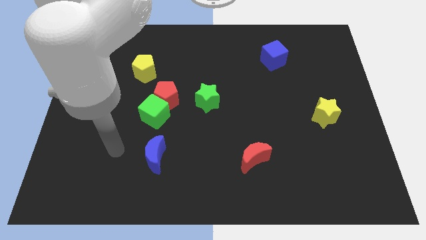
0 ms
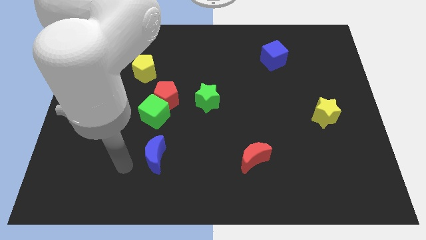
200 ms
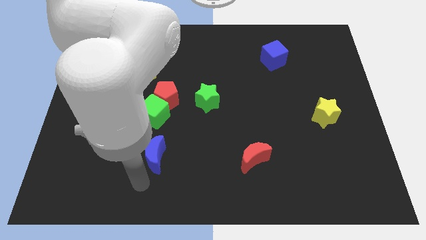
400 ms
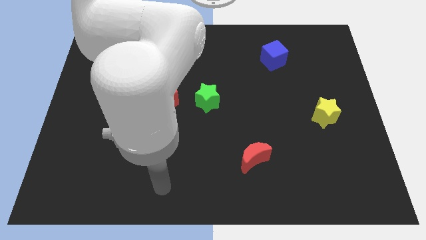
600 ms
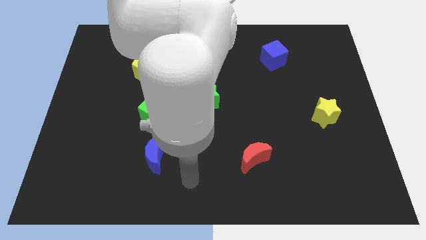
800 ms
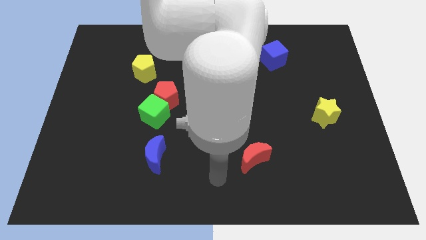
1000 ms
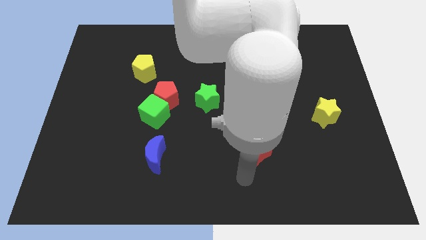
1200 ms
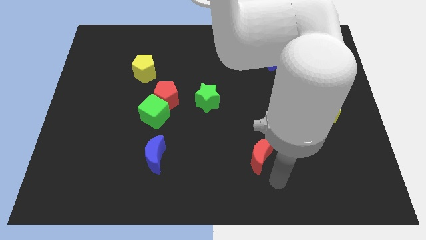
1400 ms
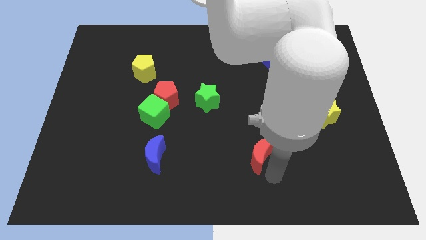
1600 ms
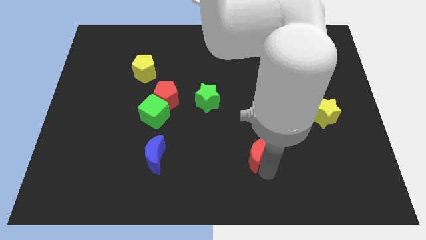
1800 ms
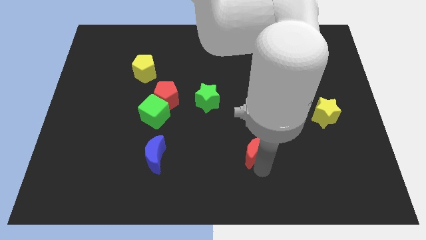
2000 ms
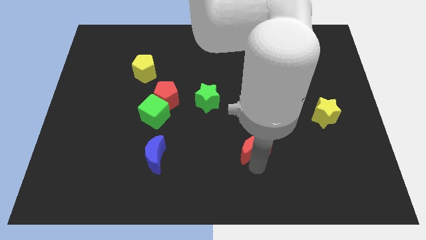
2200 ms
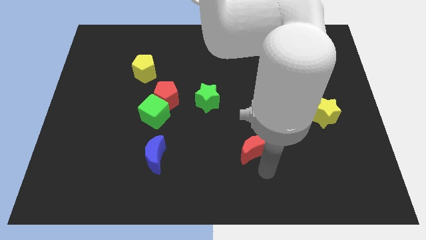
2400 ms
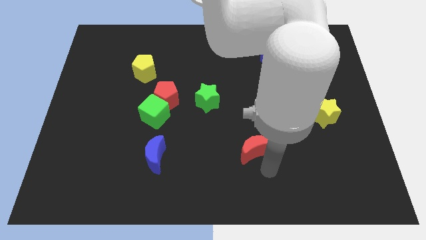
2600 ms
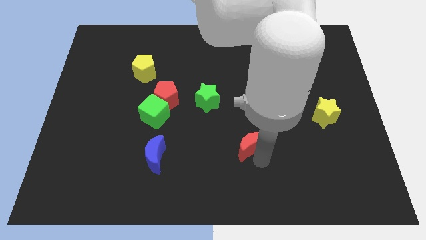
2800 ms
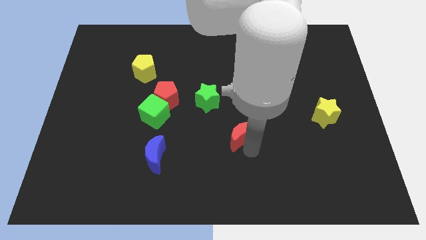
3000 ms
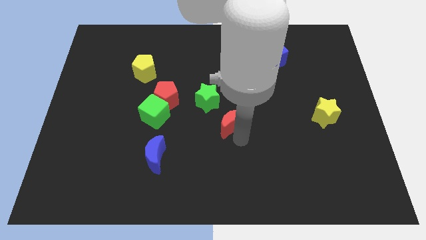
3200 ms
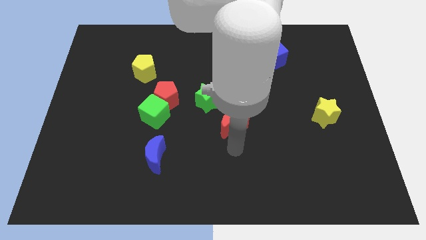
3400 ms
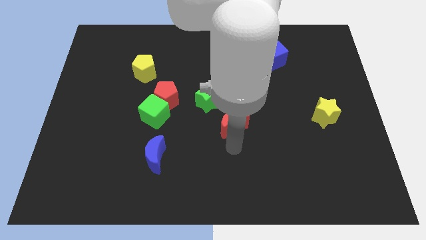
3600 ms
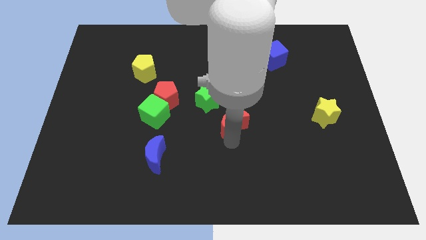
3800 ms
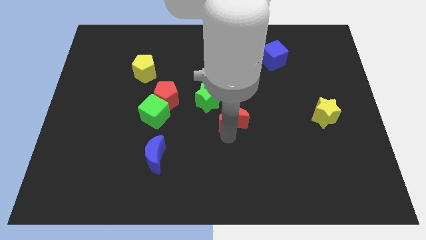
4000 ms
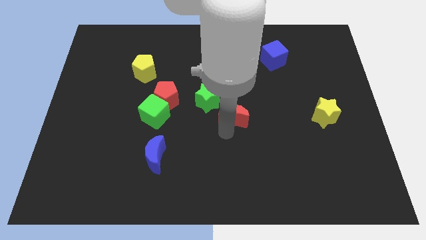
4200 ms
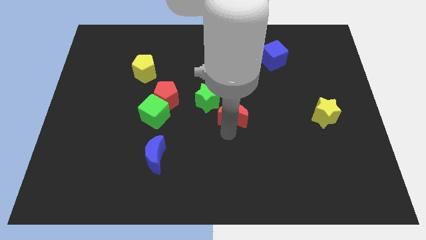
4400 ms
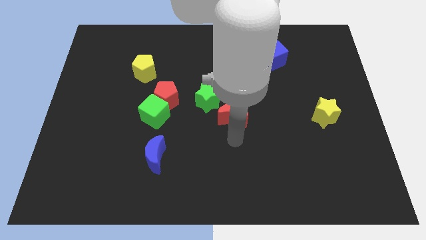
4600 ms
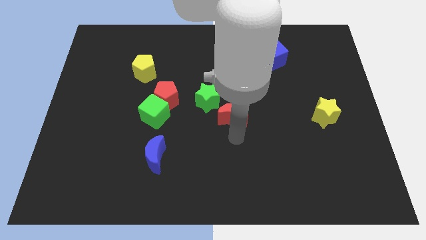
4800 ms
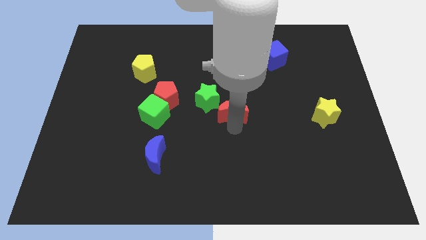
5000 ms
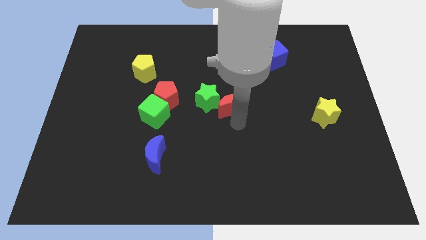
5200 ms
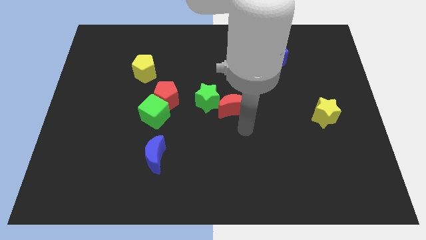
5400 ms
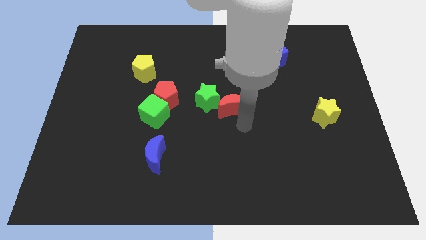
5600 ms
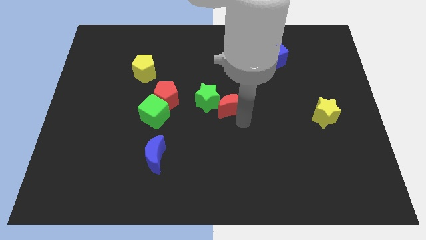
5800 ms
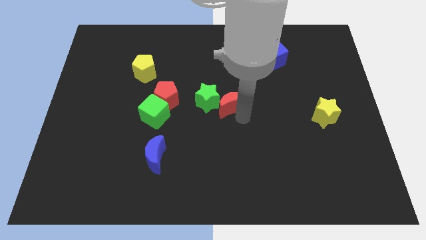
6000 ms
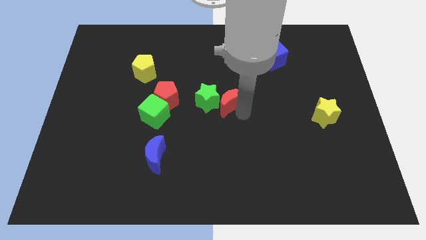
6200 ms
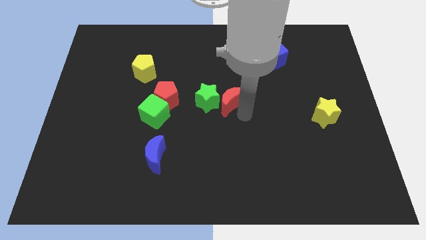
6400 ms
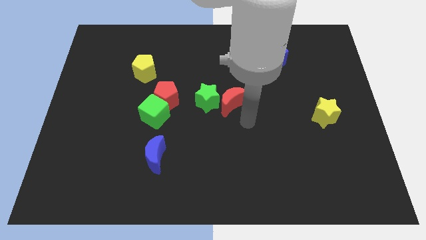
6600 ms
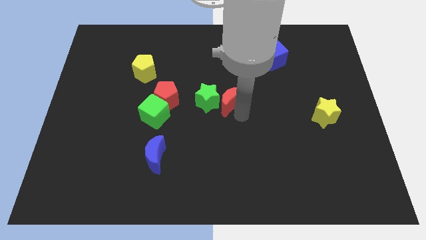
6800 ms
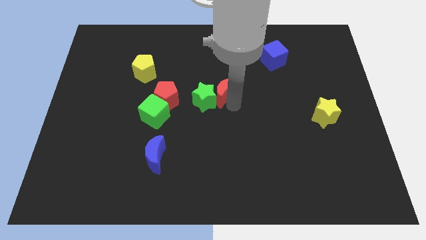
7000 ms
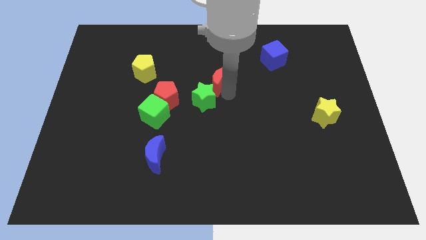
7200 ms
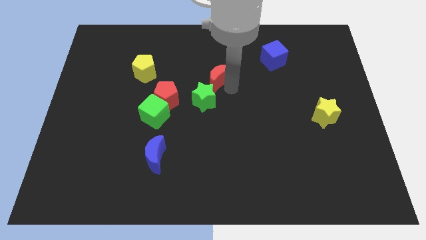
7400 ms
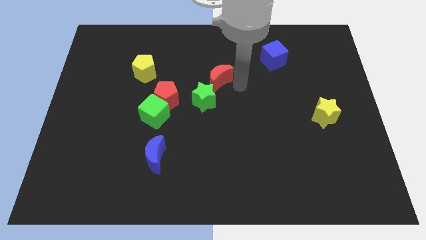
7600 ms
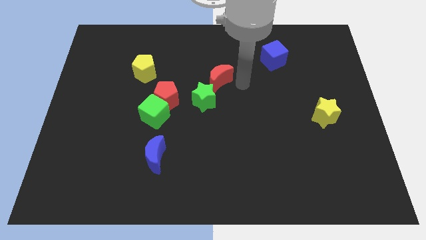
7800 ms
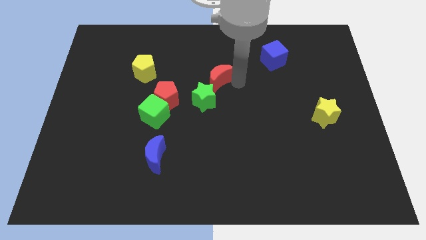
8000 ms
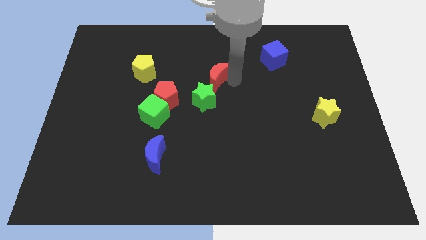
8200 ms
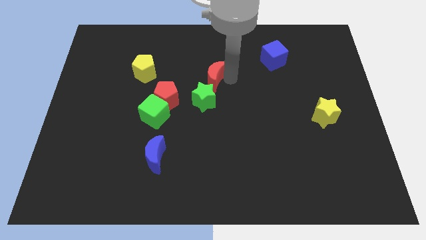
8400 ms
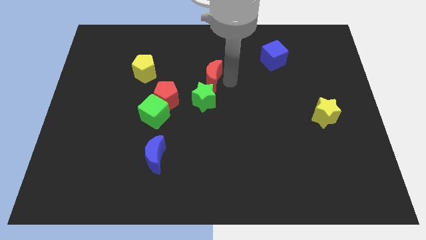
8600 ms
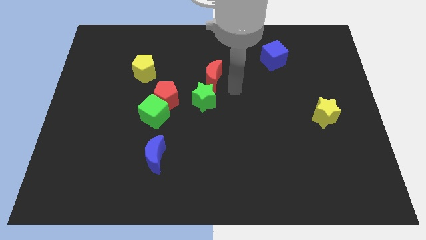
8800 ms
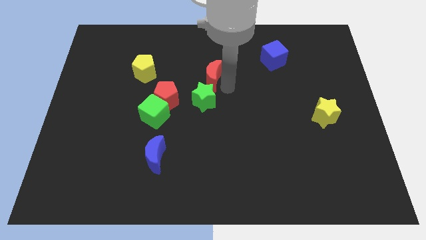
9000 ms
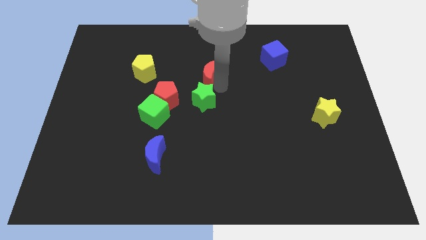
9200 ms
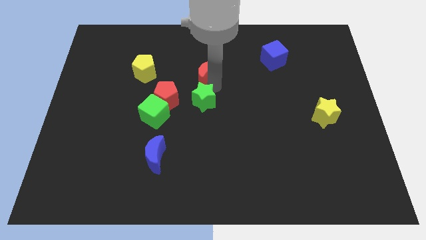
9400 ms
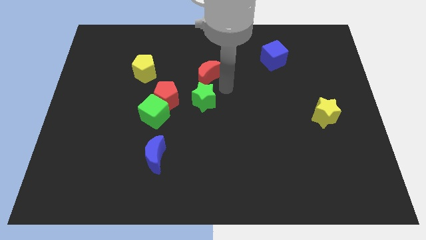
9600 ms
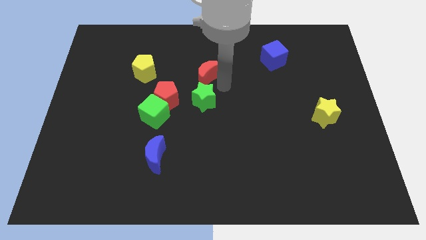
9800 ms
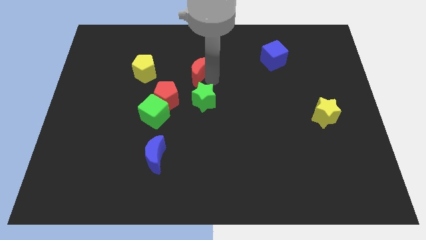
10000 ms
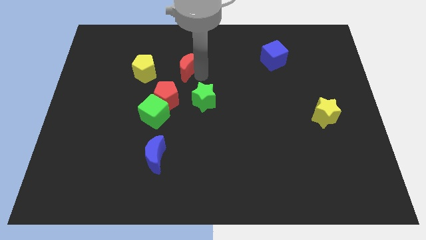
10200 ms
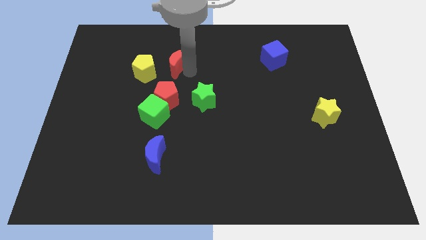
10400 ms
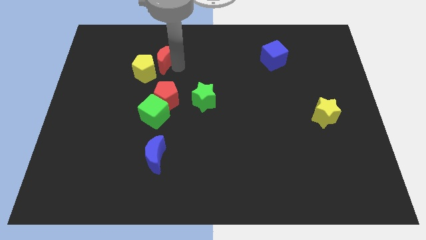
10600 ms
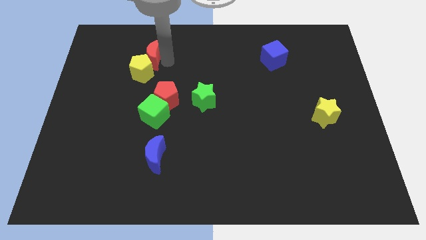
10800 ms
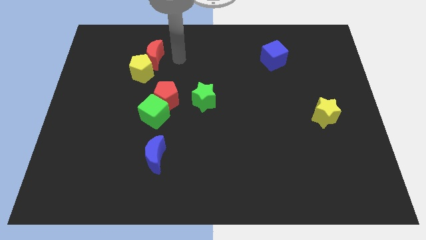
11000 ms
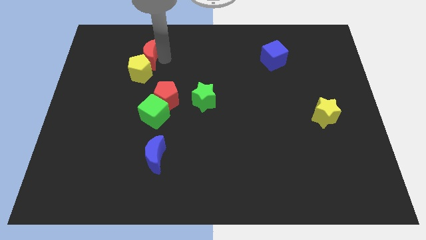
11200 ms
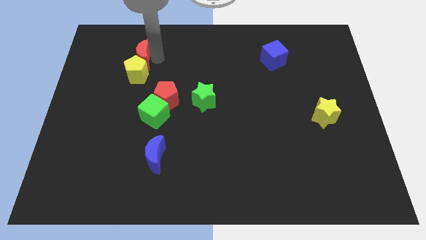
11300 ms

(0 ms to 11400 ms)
slide the red moon diagonally up and to the left of the yellow pentagon

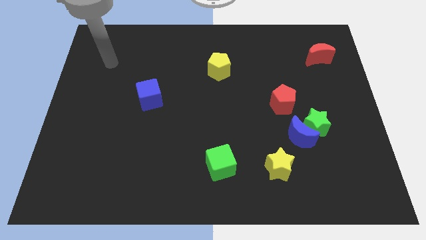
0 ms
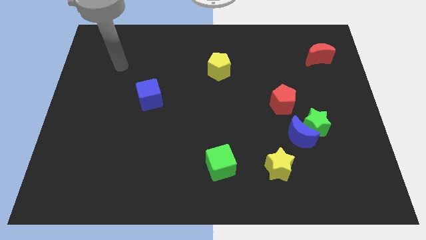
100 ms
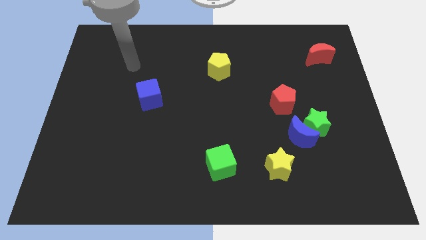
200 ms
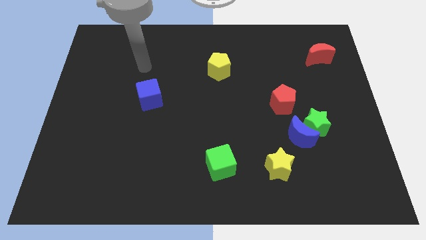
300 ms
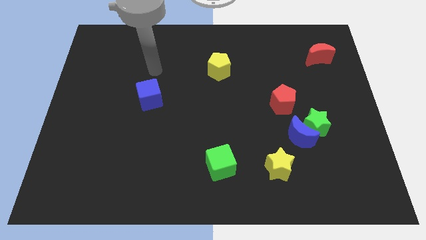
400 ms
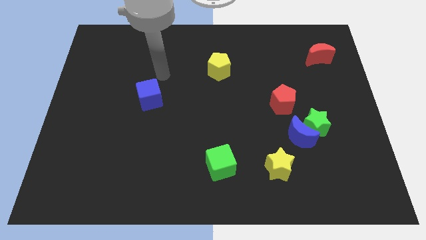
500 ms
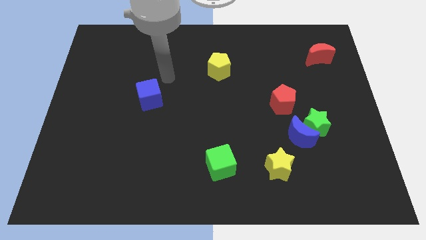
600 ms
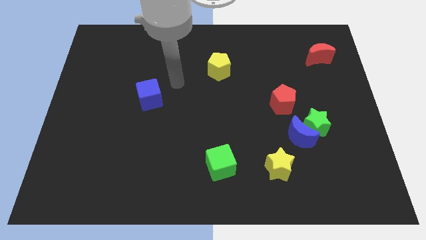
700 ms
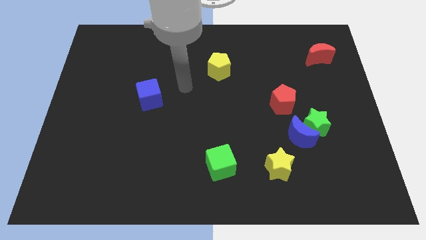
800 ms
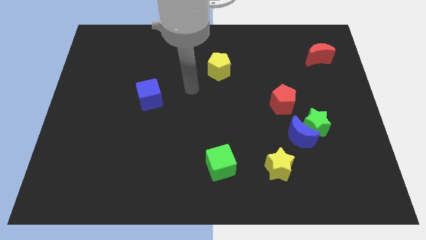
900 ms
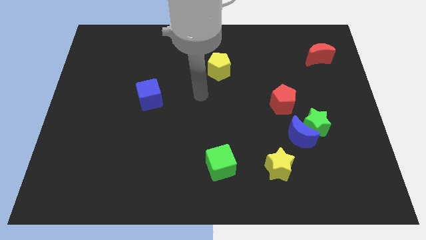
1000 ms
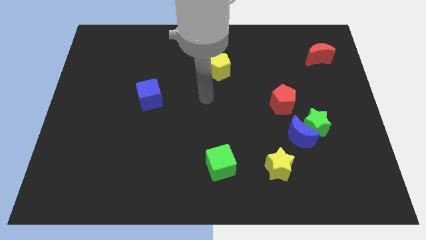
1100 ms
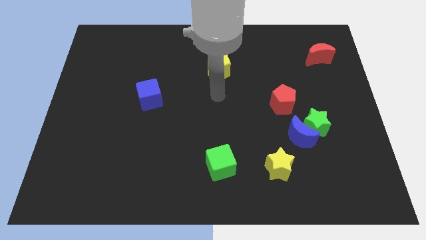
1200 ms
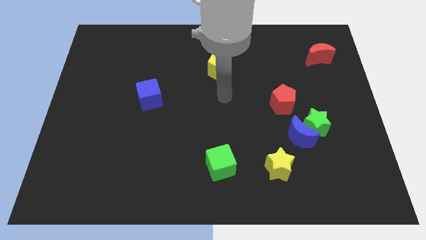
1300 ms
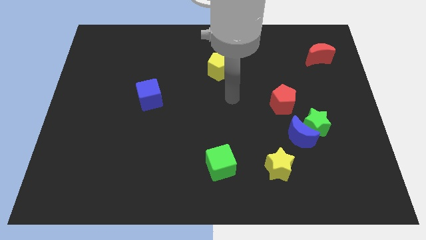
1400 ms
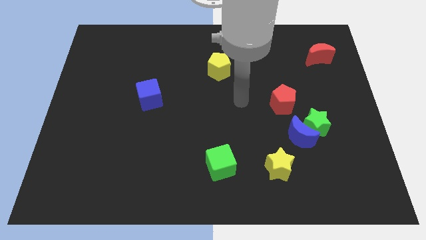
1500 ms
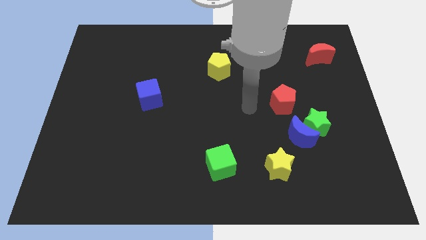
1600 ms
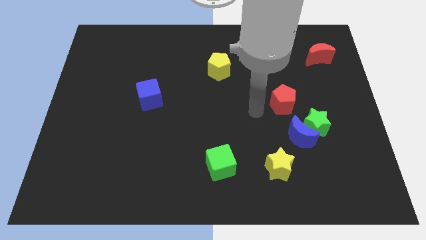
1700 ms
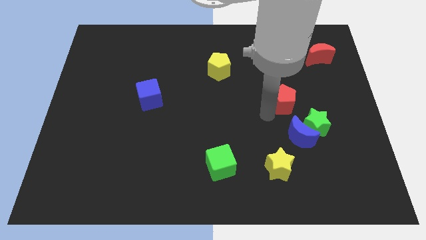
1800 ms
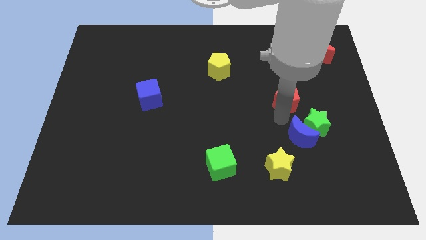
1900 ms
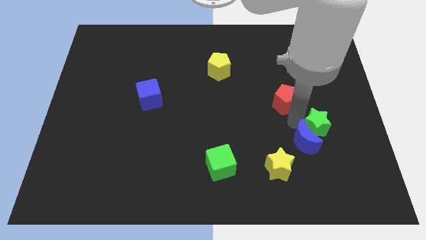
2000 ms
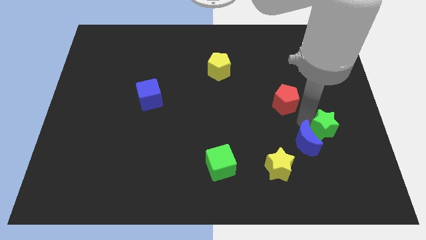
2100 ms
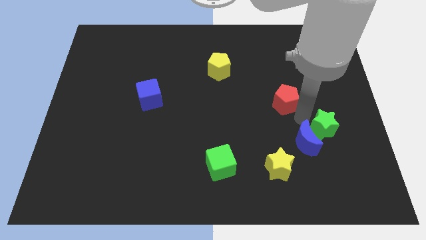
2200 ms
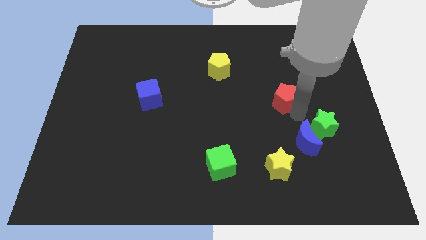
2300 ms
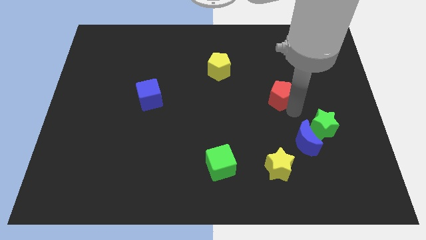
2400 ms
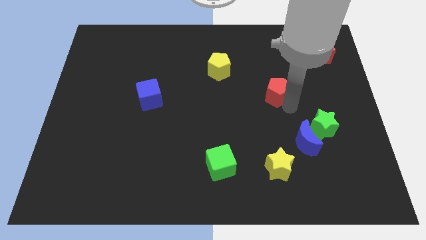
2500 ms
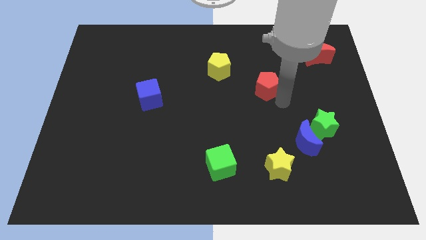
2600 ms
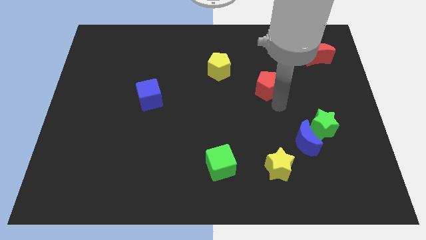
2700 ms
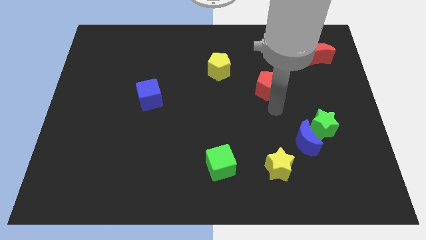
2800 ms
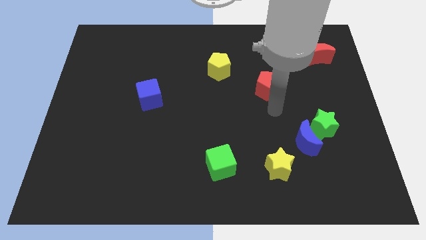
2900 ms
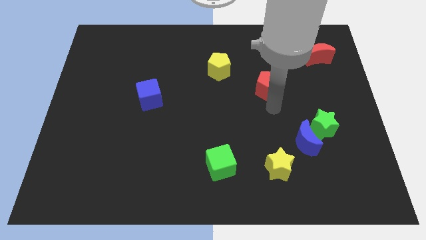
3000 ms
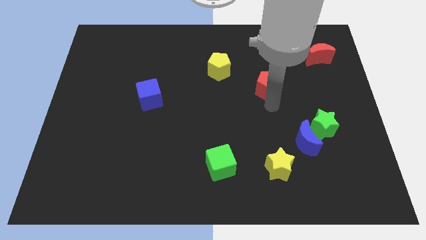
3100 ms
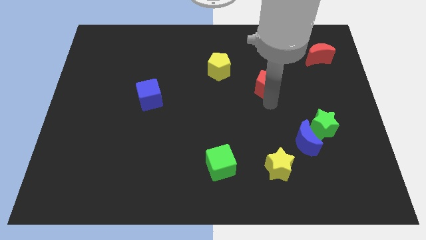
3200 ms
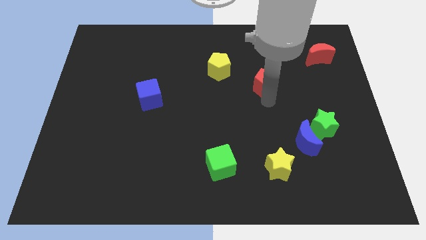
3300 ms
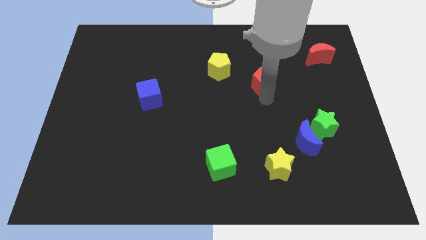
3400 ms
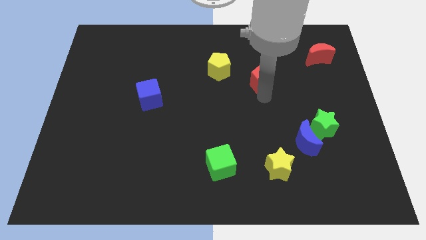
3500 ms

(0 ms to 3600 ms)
push the red pentagon to the right of the yellow pentagon
